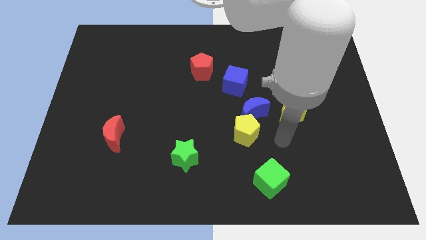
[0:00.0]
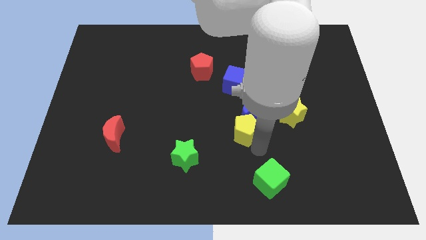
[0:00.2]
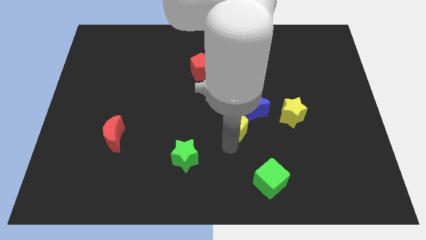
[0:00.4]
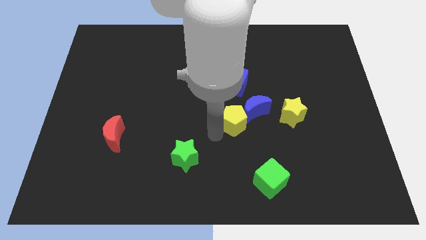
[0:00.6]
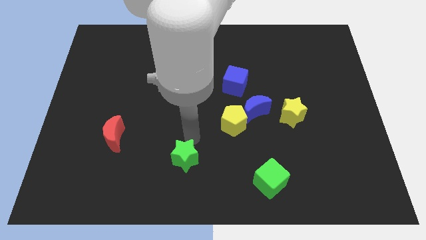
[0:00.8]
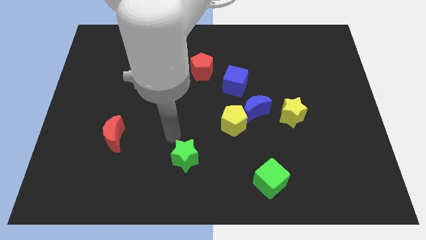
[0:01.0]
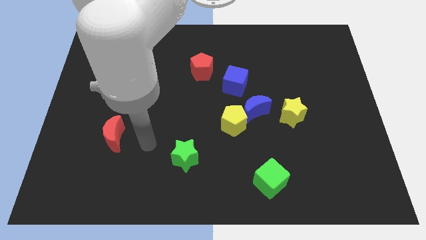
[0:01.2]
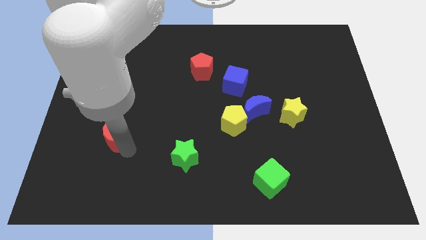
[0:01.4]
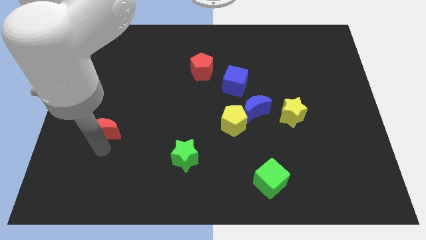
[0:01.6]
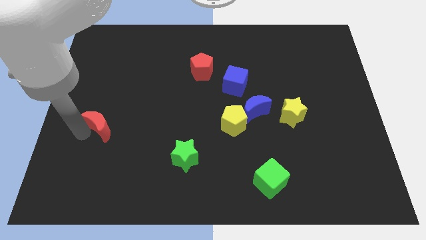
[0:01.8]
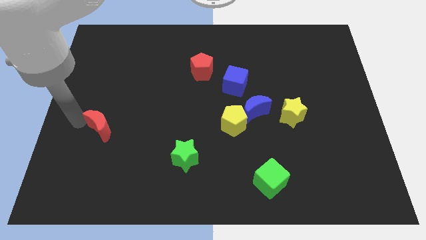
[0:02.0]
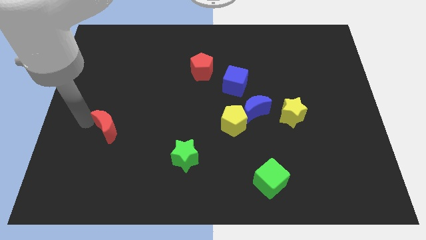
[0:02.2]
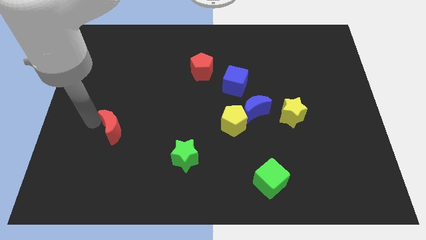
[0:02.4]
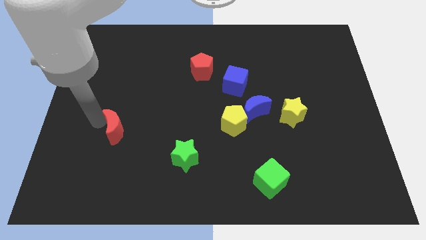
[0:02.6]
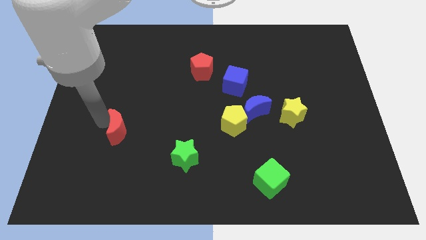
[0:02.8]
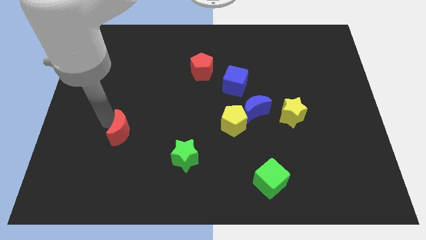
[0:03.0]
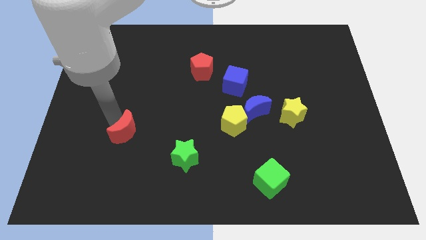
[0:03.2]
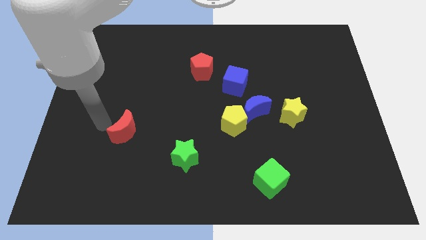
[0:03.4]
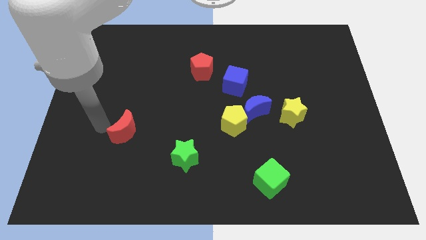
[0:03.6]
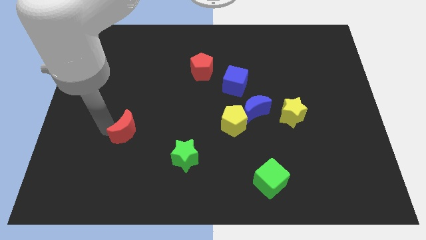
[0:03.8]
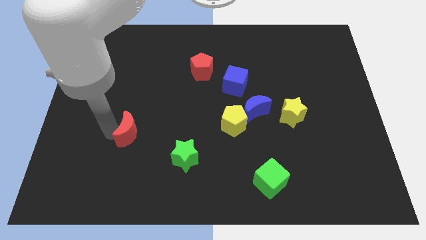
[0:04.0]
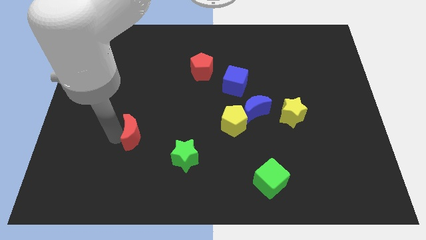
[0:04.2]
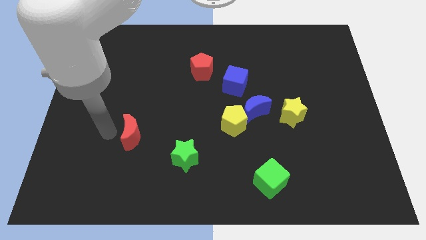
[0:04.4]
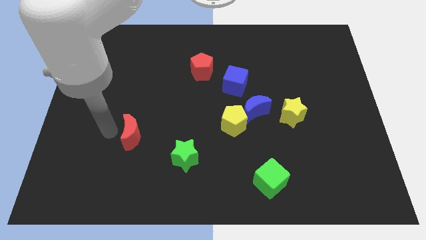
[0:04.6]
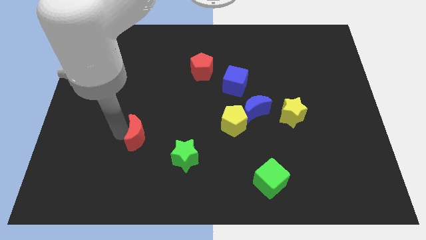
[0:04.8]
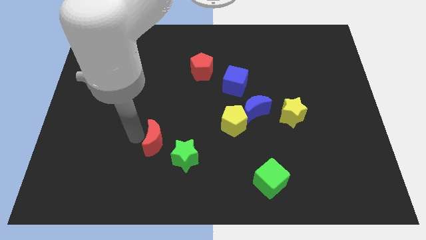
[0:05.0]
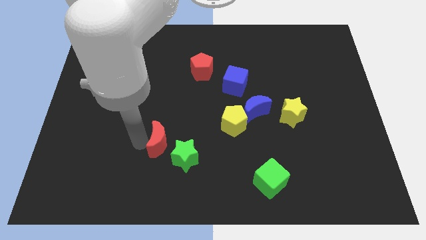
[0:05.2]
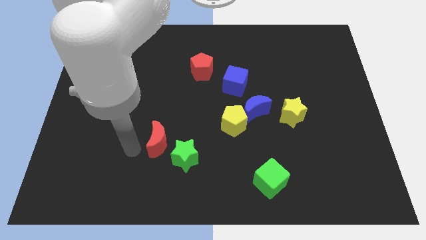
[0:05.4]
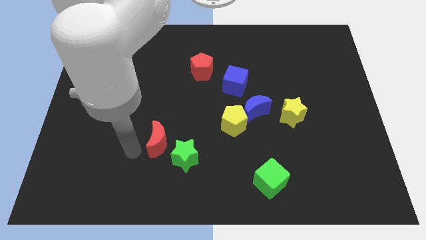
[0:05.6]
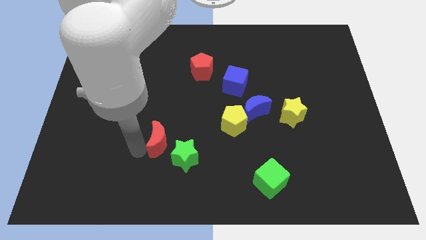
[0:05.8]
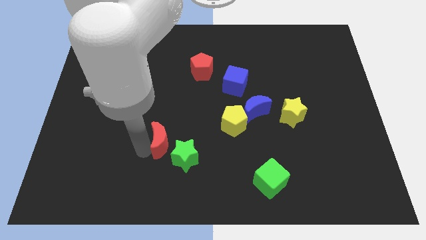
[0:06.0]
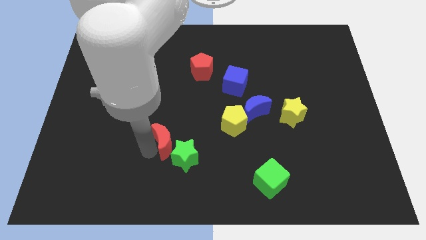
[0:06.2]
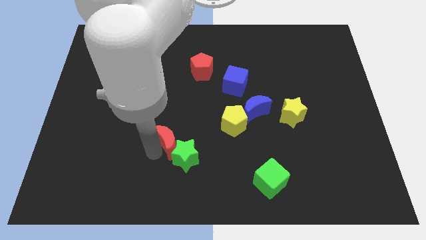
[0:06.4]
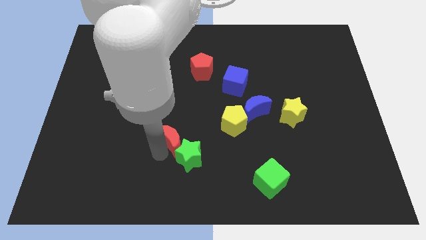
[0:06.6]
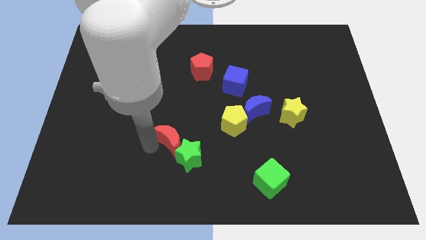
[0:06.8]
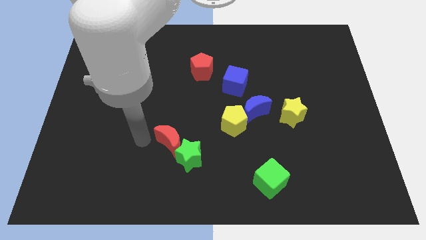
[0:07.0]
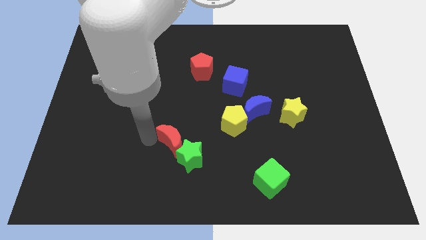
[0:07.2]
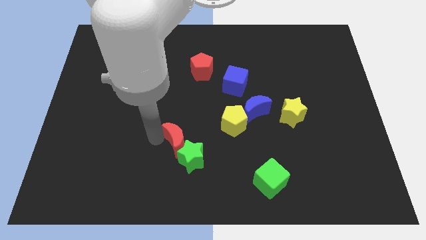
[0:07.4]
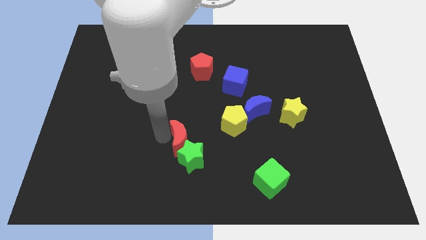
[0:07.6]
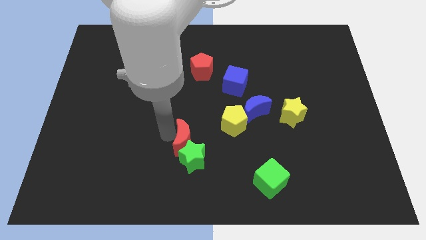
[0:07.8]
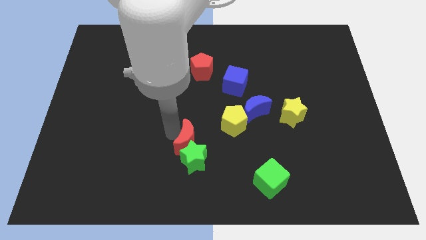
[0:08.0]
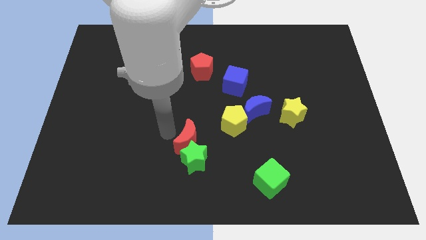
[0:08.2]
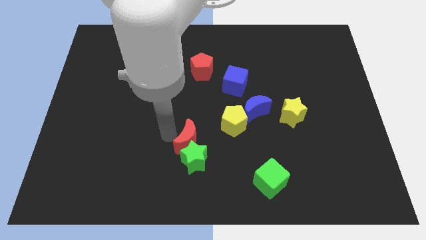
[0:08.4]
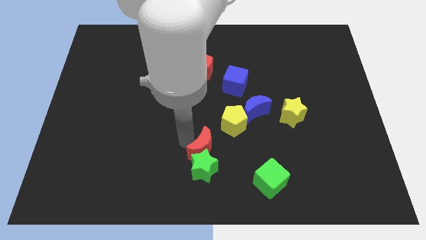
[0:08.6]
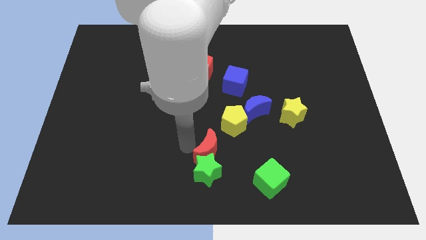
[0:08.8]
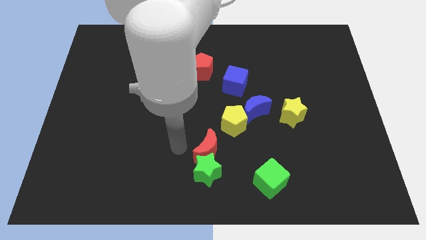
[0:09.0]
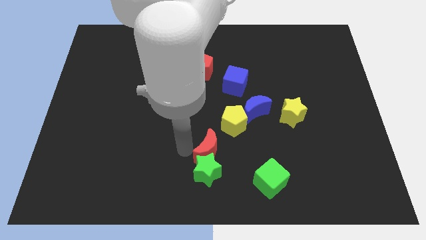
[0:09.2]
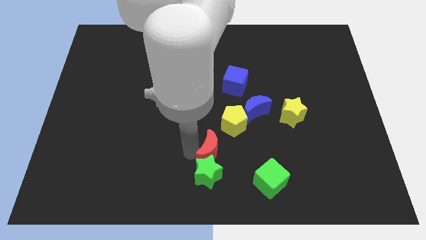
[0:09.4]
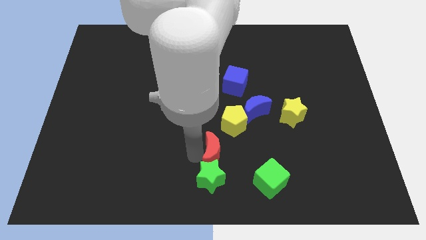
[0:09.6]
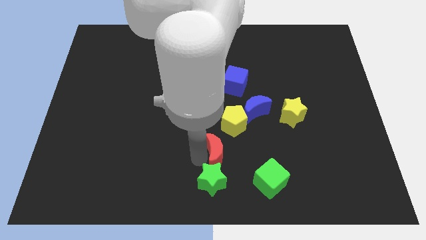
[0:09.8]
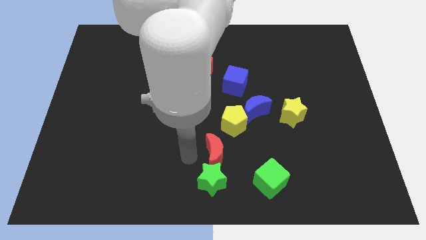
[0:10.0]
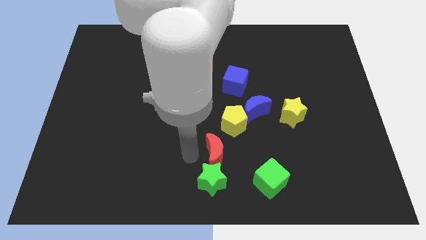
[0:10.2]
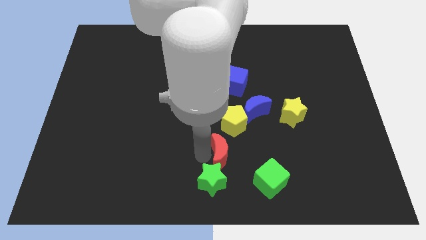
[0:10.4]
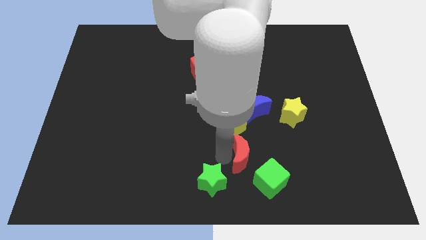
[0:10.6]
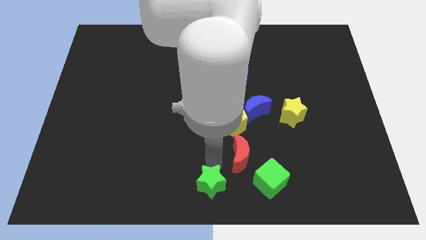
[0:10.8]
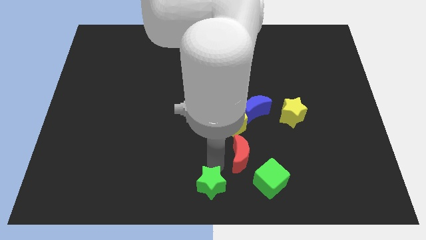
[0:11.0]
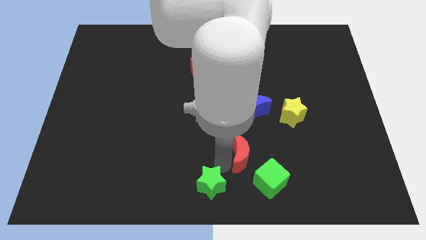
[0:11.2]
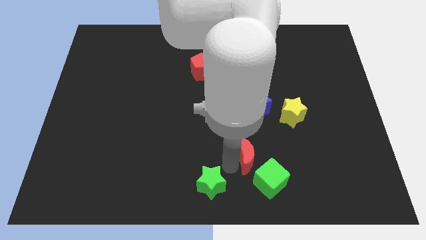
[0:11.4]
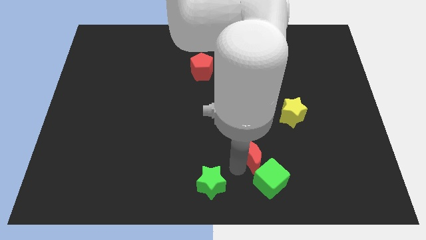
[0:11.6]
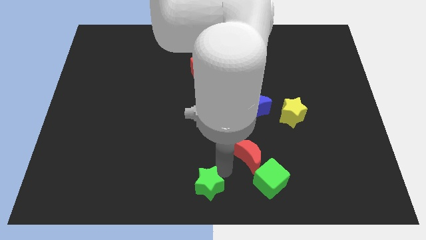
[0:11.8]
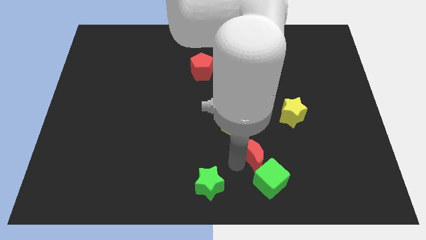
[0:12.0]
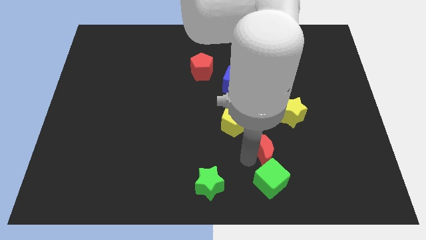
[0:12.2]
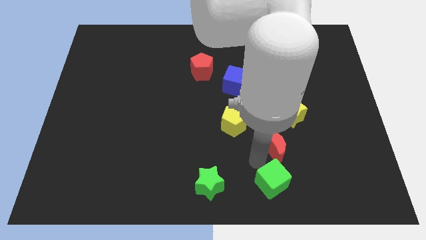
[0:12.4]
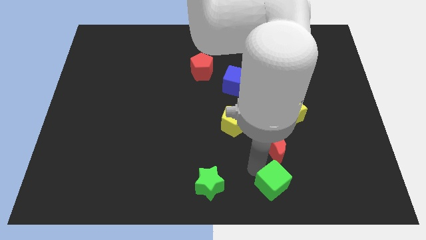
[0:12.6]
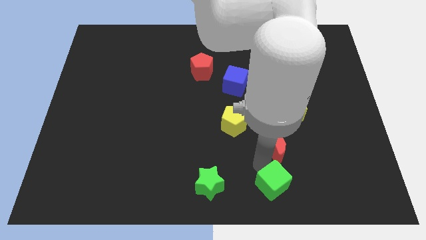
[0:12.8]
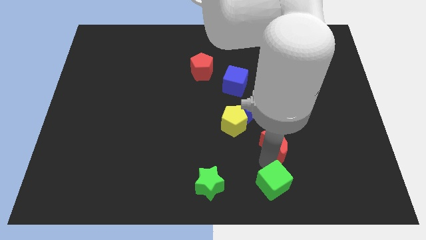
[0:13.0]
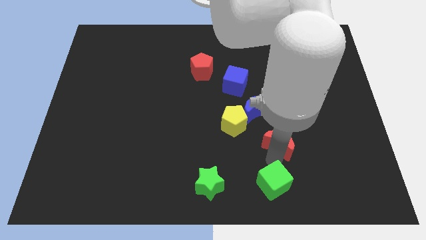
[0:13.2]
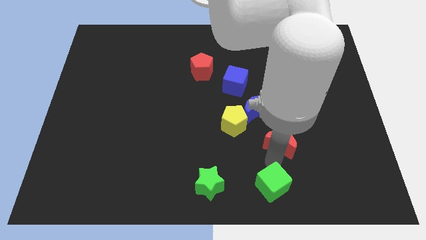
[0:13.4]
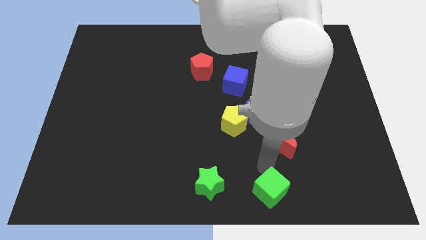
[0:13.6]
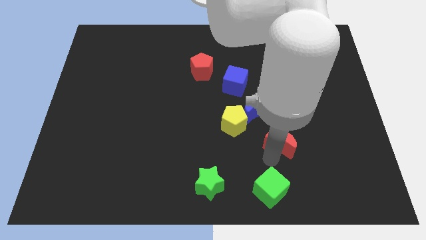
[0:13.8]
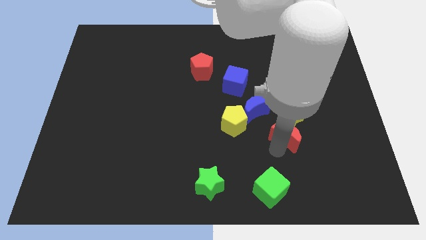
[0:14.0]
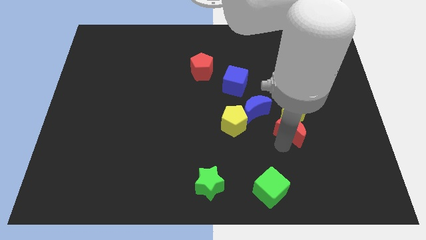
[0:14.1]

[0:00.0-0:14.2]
put the red moon close to the yellow star
